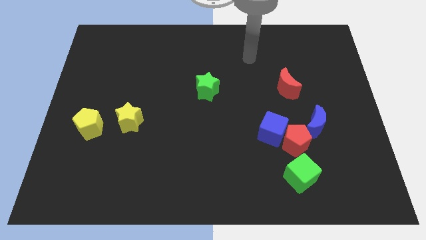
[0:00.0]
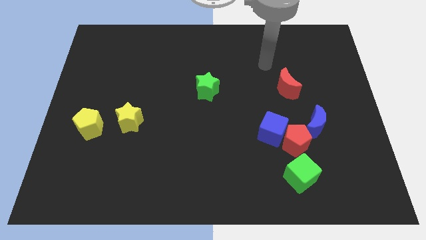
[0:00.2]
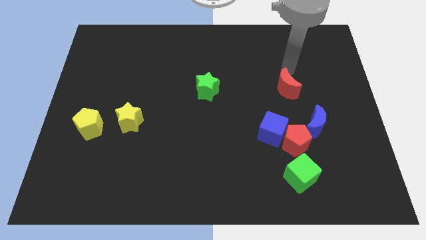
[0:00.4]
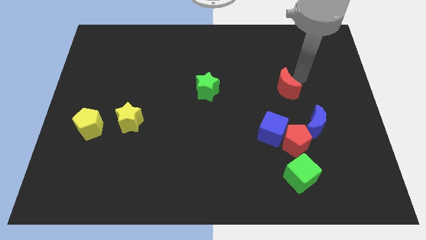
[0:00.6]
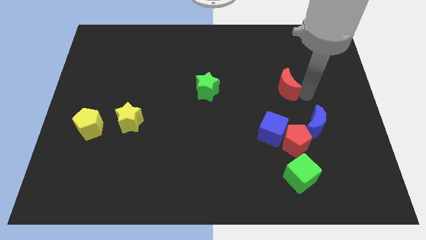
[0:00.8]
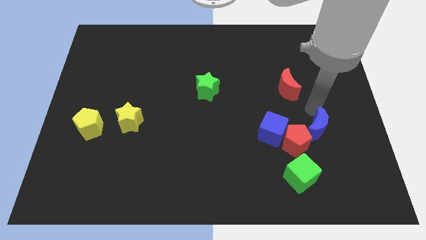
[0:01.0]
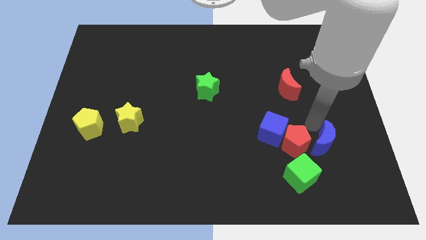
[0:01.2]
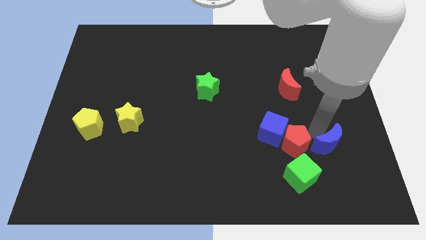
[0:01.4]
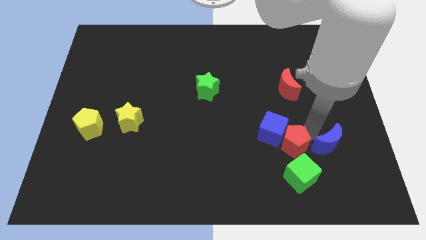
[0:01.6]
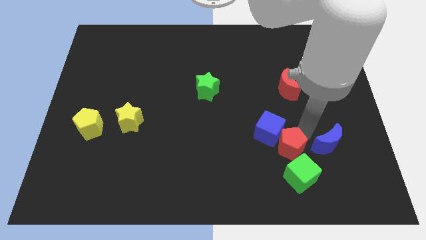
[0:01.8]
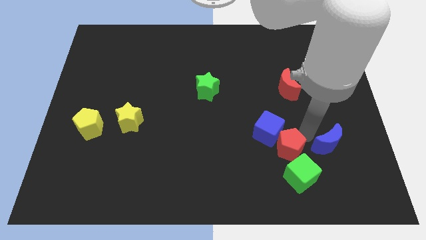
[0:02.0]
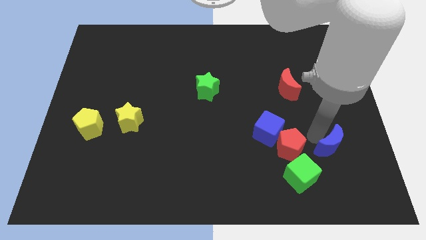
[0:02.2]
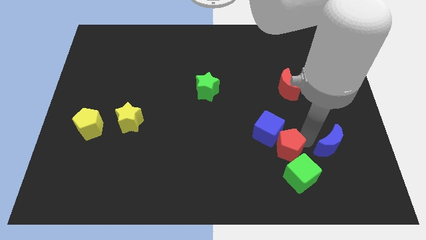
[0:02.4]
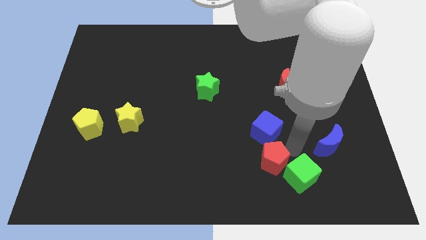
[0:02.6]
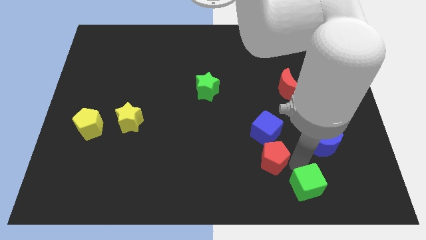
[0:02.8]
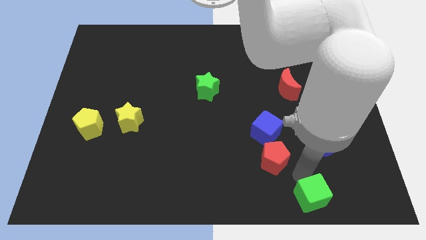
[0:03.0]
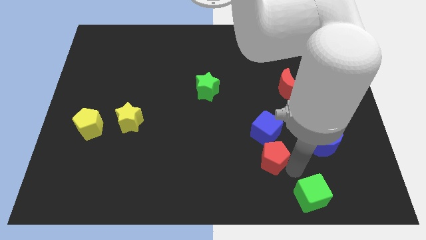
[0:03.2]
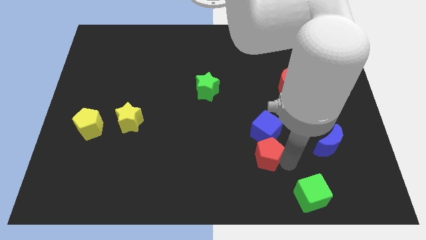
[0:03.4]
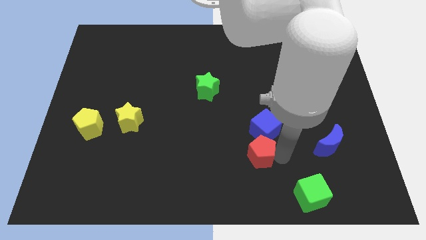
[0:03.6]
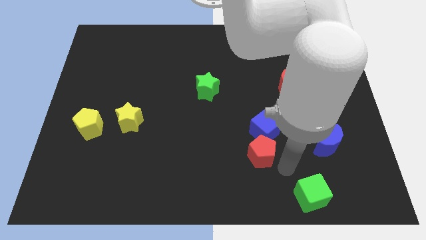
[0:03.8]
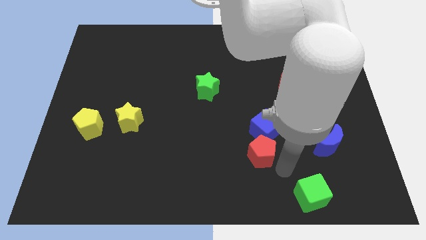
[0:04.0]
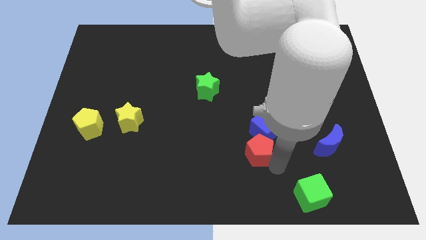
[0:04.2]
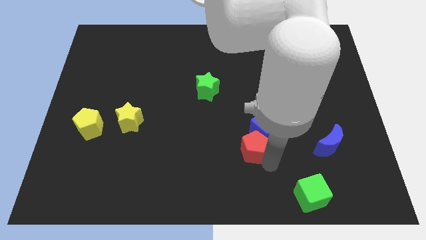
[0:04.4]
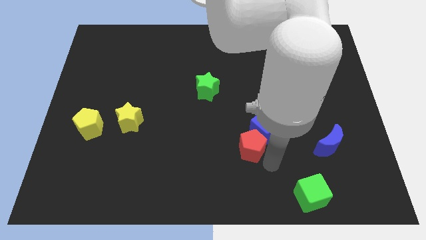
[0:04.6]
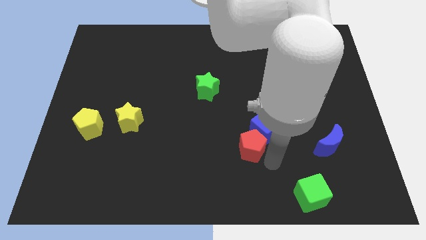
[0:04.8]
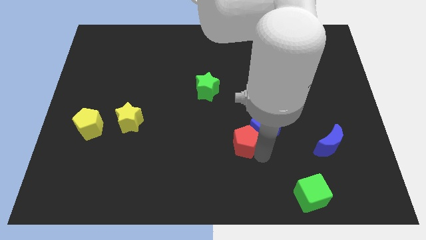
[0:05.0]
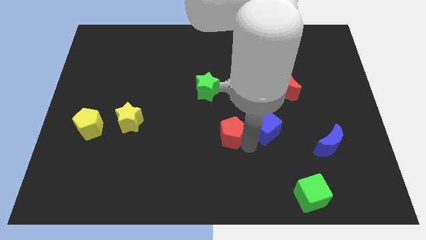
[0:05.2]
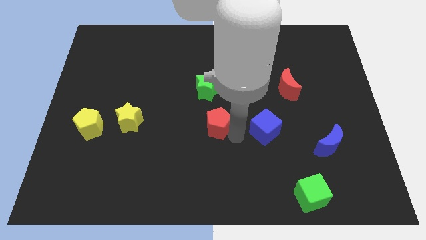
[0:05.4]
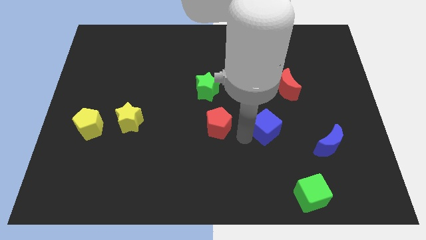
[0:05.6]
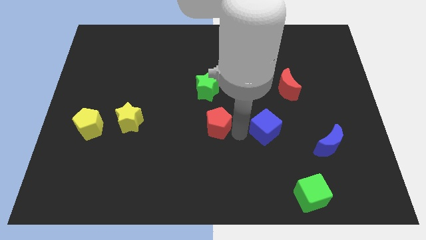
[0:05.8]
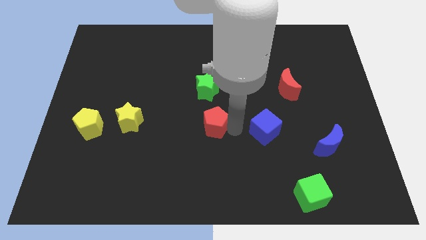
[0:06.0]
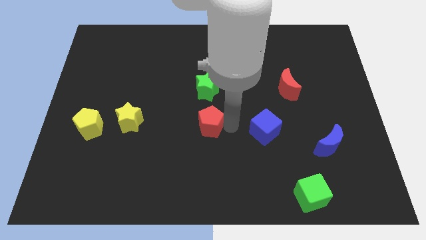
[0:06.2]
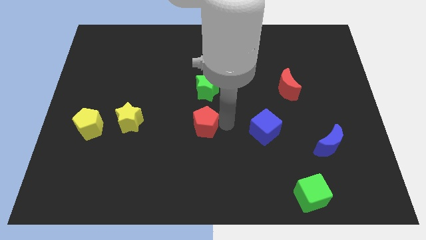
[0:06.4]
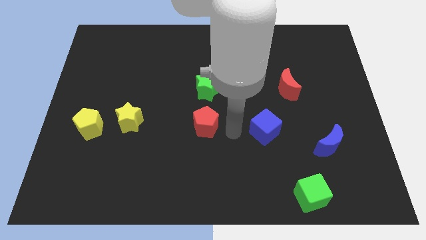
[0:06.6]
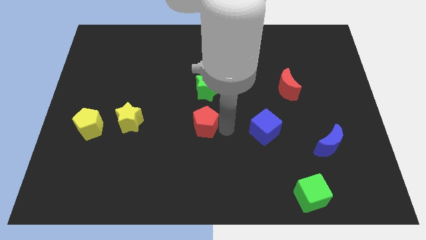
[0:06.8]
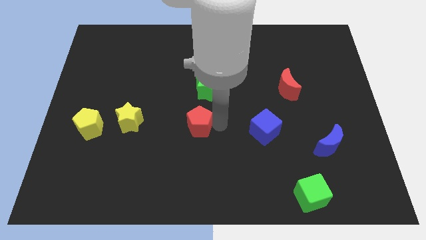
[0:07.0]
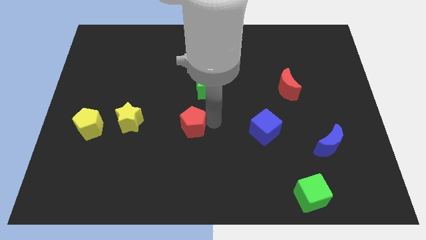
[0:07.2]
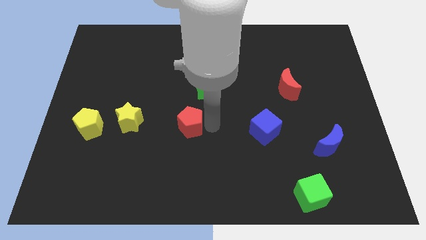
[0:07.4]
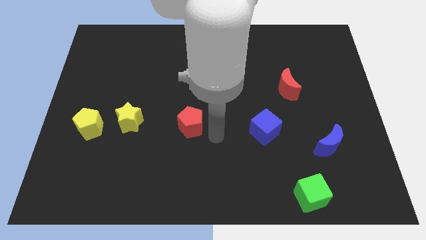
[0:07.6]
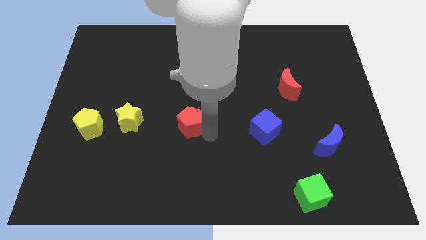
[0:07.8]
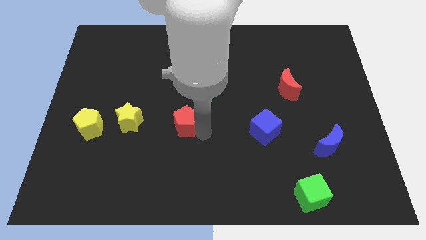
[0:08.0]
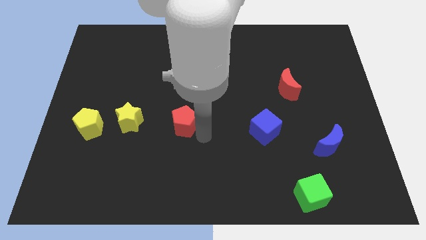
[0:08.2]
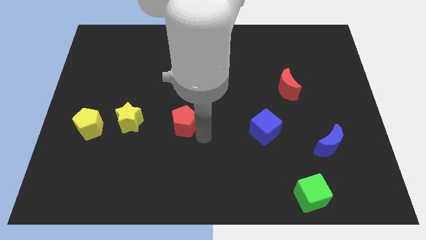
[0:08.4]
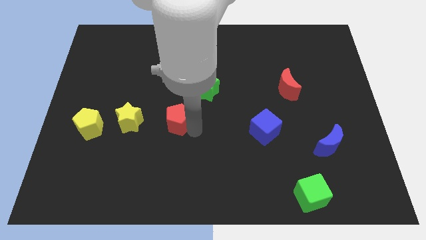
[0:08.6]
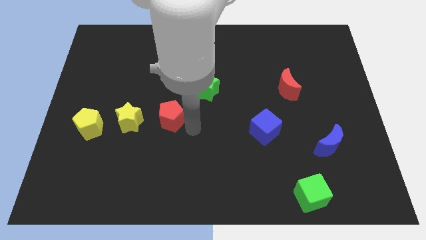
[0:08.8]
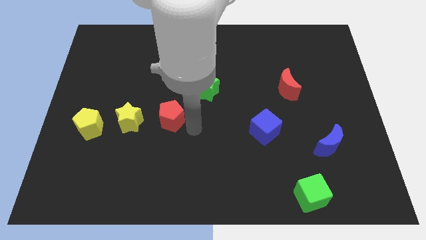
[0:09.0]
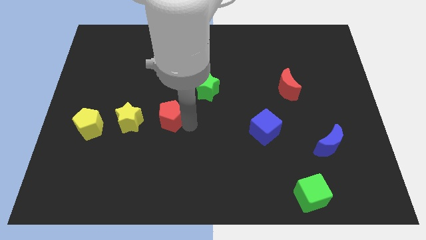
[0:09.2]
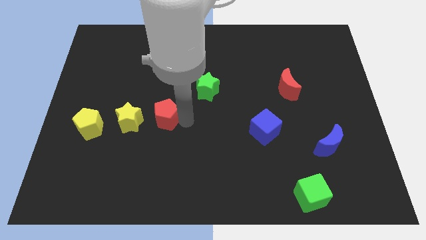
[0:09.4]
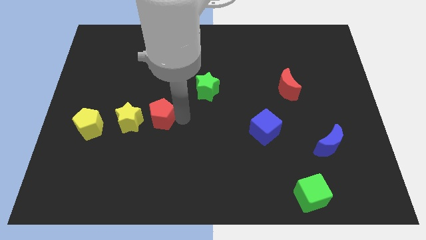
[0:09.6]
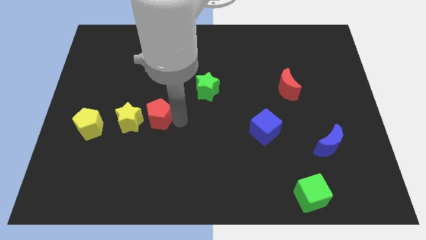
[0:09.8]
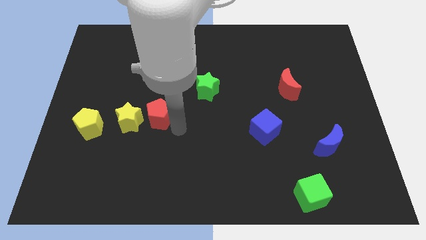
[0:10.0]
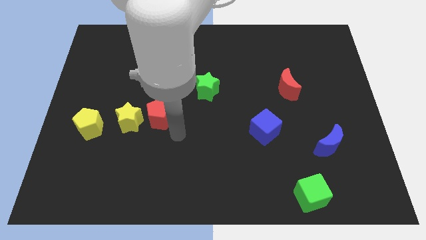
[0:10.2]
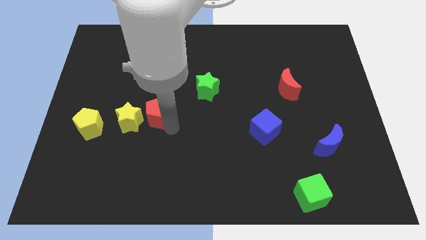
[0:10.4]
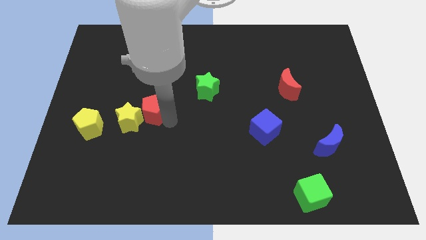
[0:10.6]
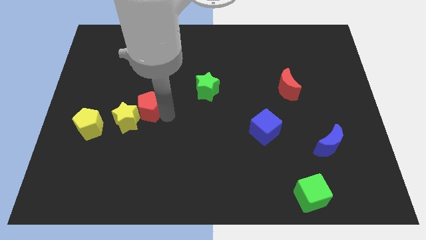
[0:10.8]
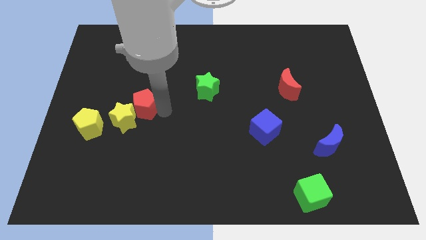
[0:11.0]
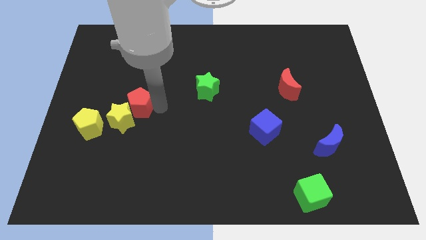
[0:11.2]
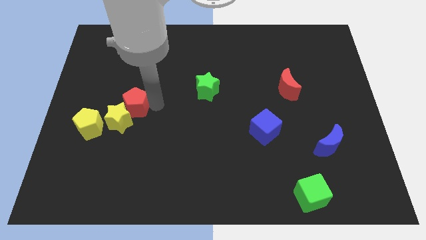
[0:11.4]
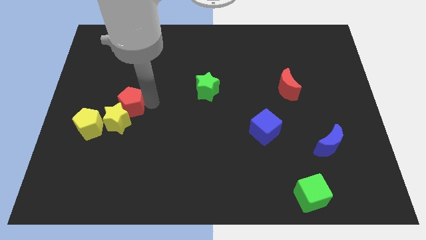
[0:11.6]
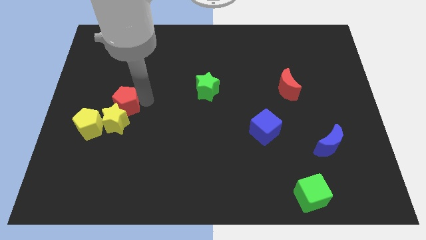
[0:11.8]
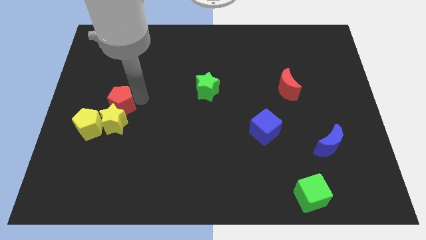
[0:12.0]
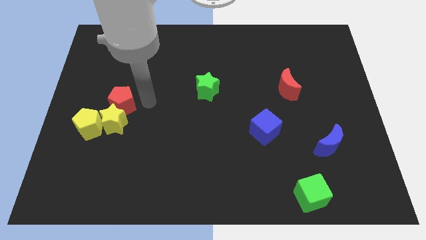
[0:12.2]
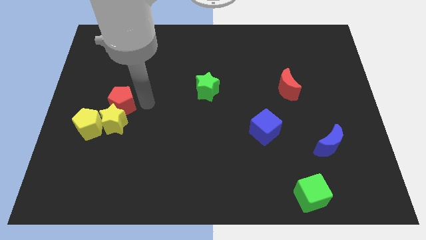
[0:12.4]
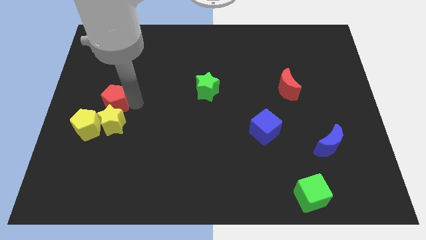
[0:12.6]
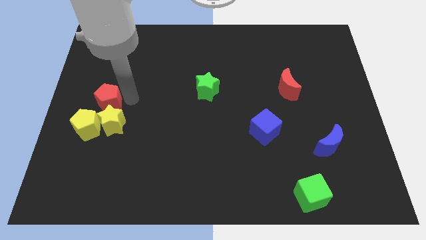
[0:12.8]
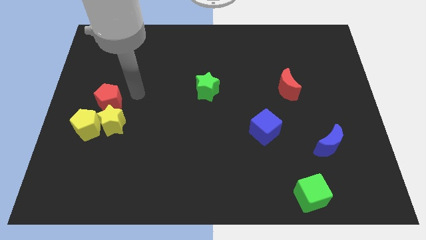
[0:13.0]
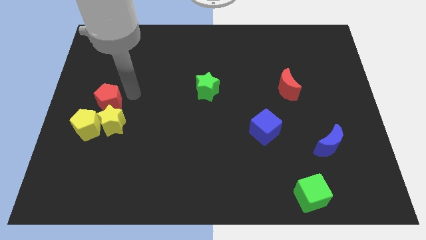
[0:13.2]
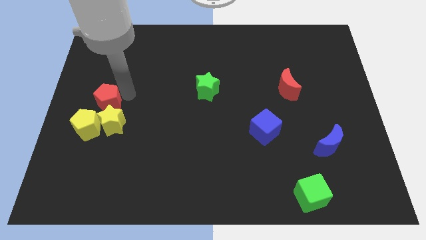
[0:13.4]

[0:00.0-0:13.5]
push the red pentagon to the left side

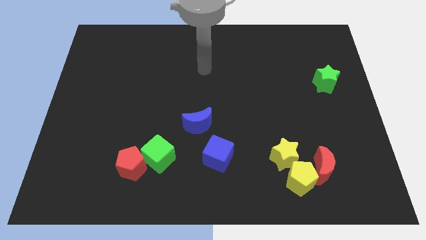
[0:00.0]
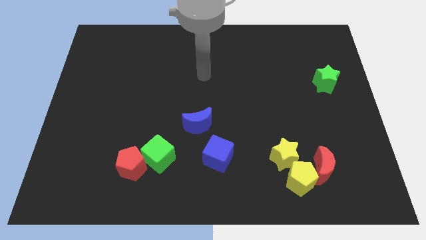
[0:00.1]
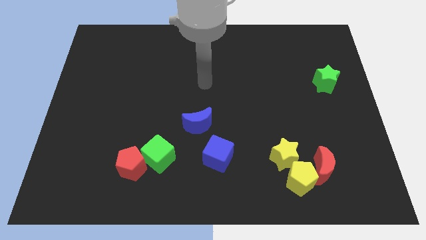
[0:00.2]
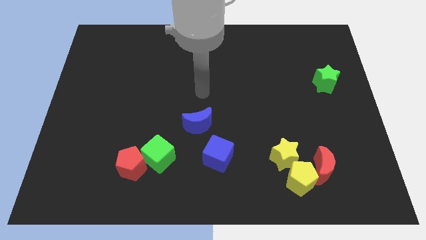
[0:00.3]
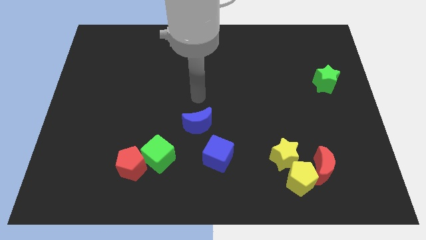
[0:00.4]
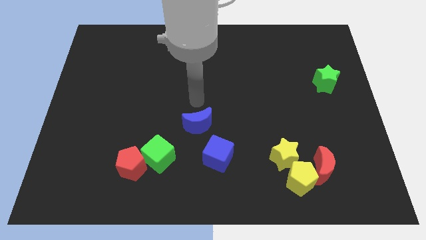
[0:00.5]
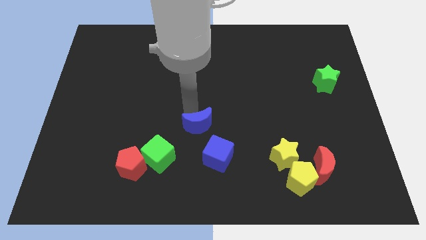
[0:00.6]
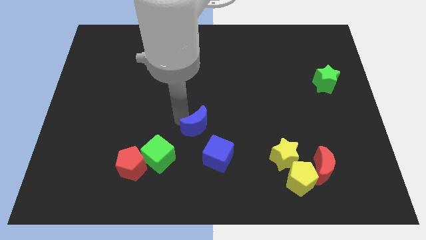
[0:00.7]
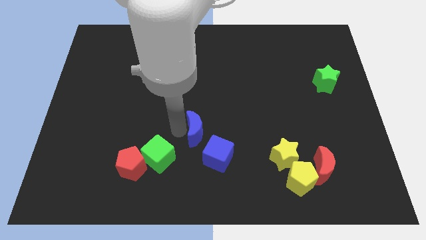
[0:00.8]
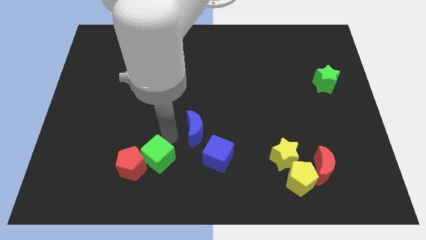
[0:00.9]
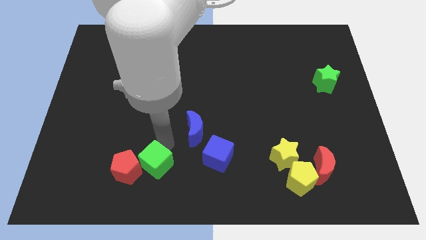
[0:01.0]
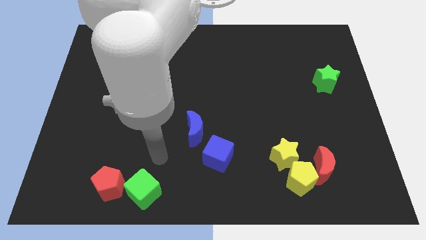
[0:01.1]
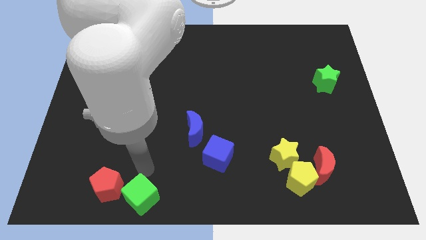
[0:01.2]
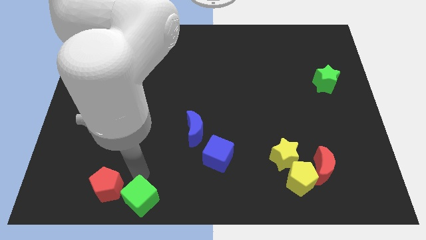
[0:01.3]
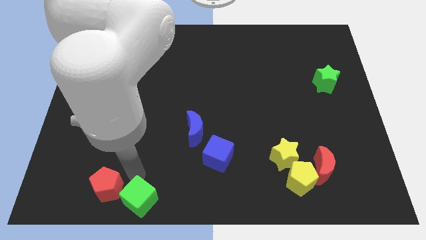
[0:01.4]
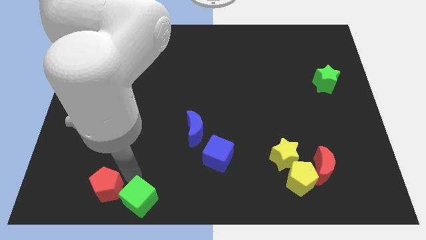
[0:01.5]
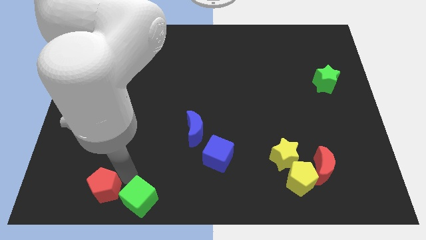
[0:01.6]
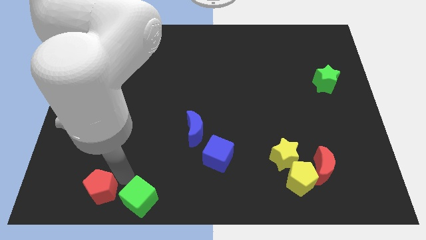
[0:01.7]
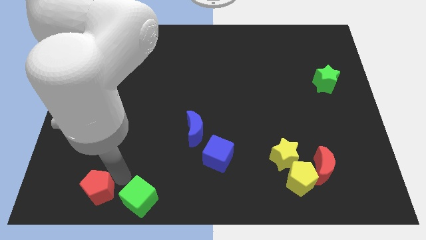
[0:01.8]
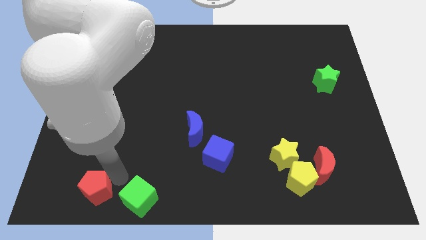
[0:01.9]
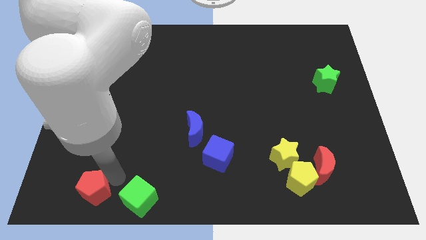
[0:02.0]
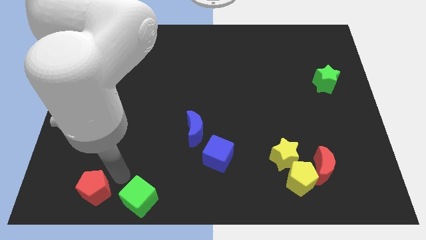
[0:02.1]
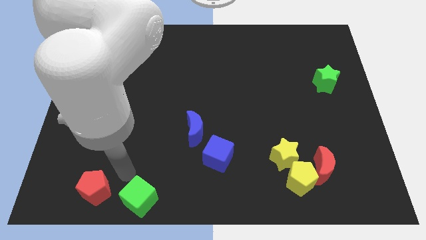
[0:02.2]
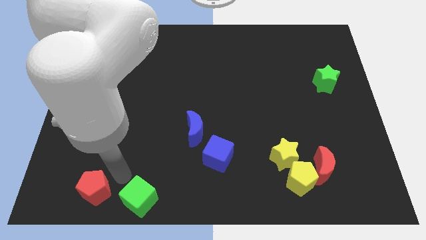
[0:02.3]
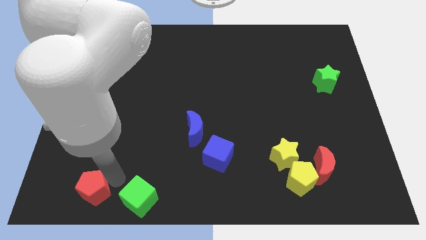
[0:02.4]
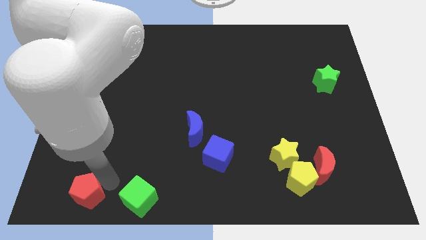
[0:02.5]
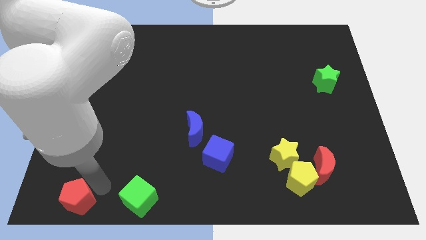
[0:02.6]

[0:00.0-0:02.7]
move the red pentagon to the bottom left
